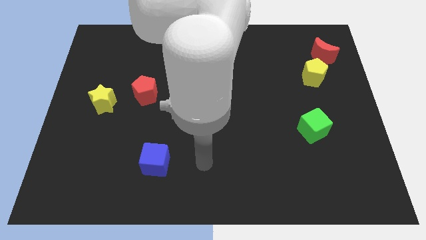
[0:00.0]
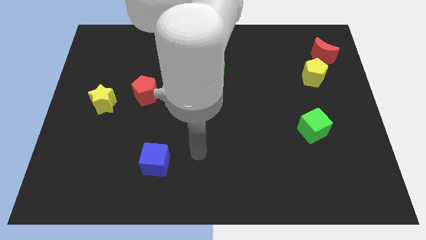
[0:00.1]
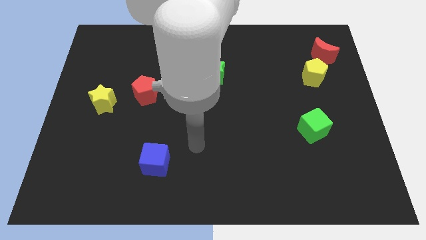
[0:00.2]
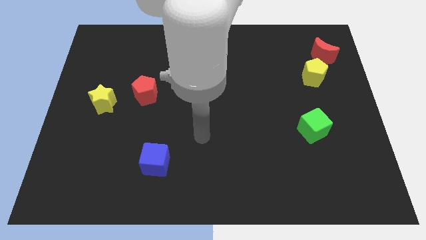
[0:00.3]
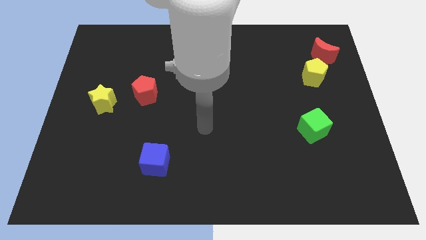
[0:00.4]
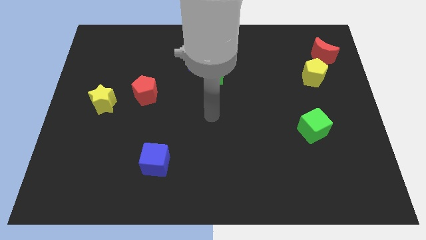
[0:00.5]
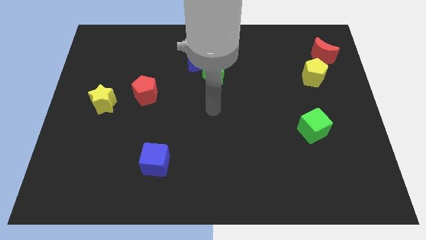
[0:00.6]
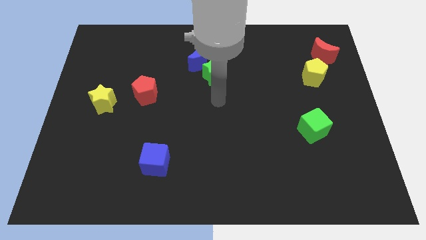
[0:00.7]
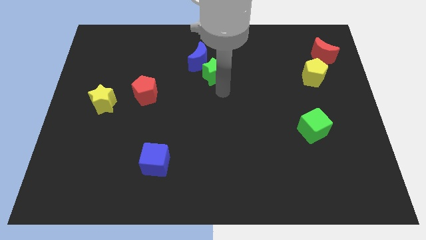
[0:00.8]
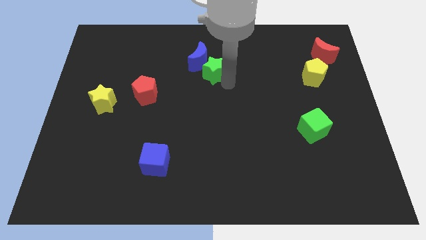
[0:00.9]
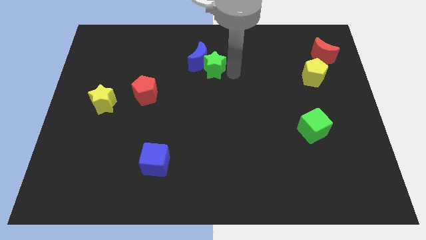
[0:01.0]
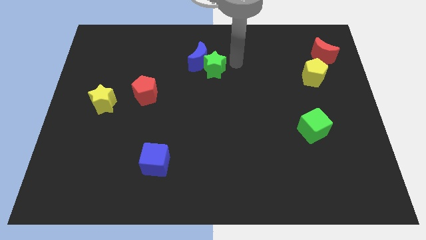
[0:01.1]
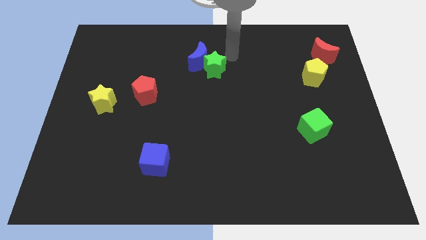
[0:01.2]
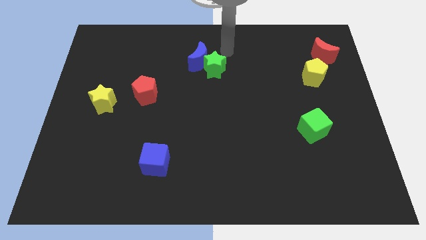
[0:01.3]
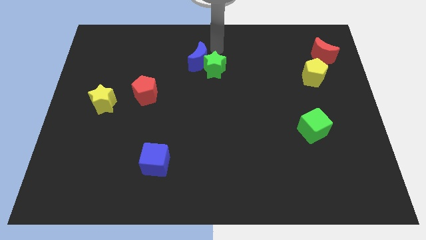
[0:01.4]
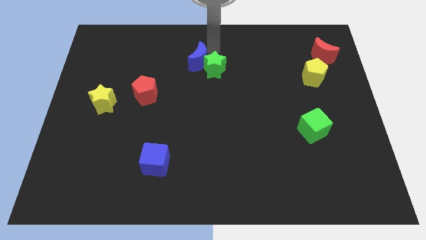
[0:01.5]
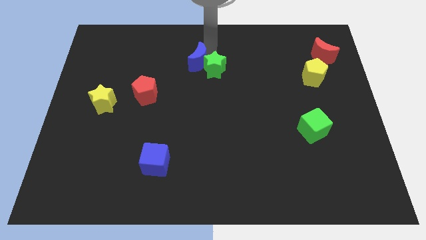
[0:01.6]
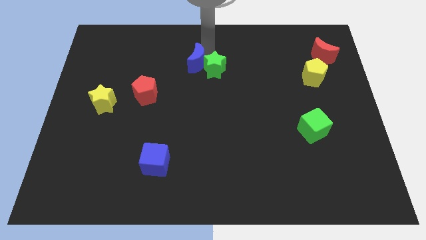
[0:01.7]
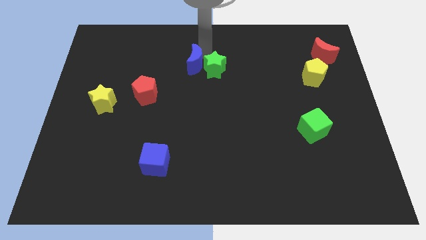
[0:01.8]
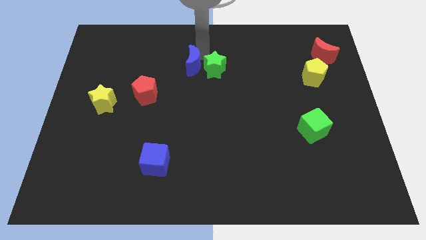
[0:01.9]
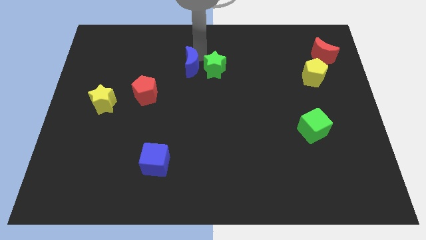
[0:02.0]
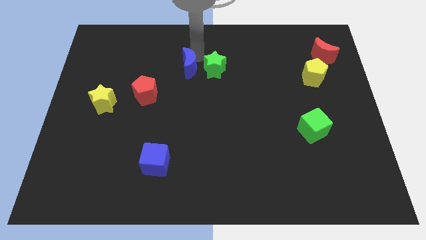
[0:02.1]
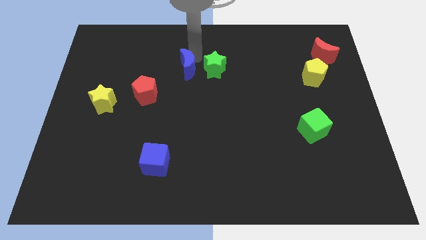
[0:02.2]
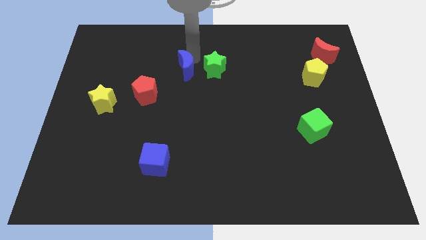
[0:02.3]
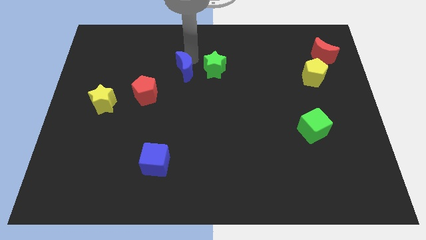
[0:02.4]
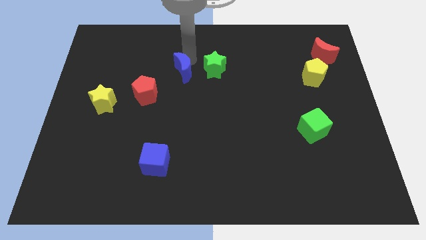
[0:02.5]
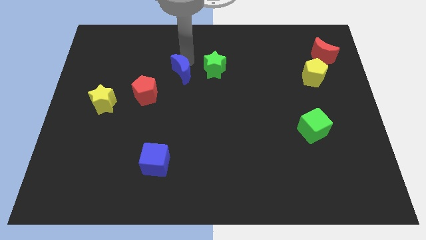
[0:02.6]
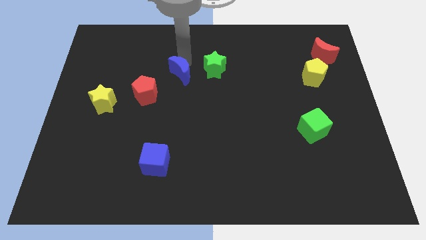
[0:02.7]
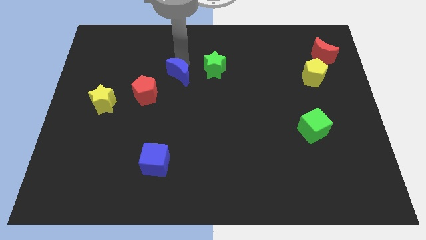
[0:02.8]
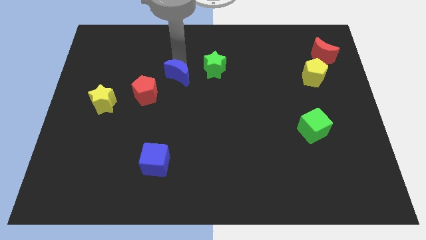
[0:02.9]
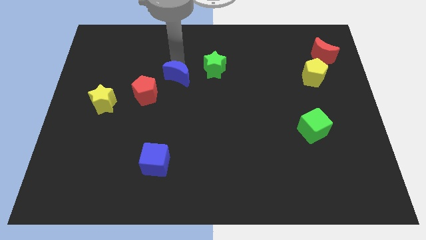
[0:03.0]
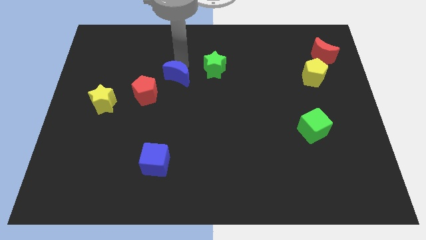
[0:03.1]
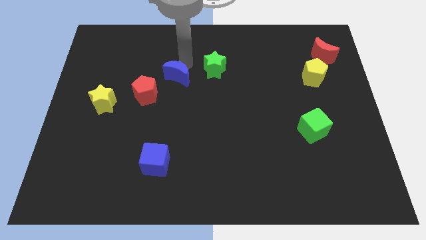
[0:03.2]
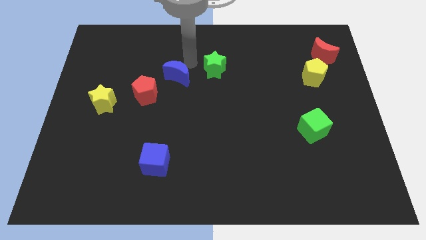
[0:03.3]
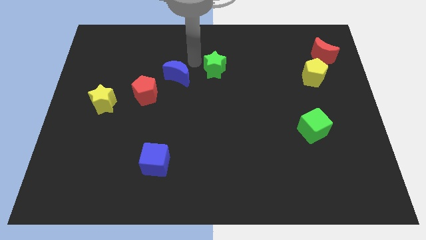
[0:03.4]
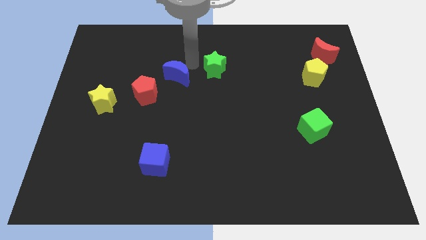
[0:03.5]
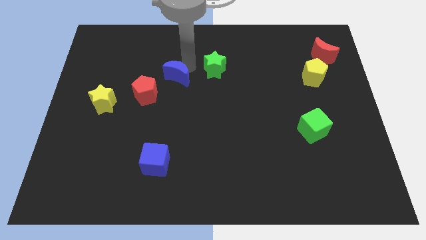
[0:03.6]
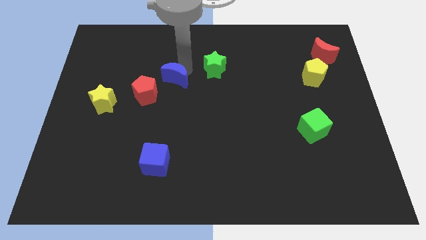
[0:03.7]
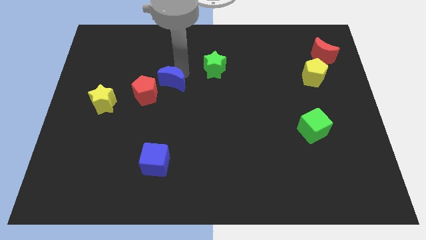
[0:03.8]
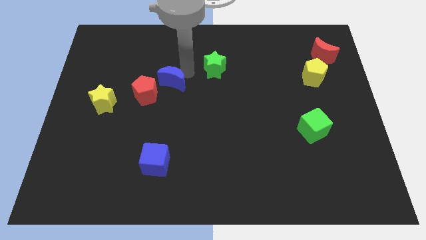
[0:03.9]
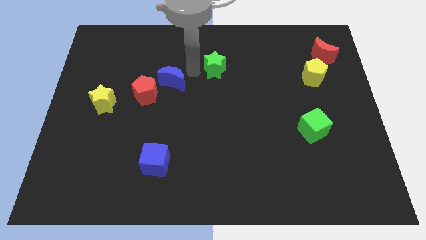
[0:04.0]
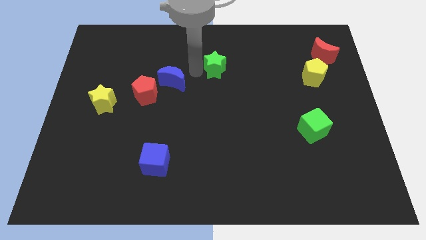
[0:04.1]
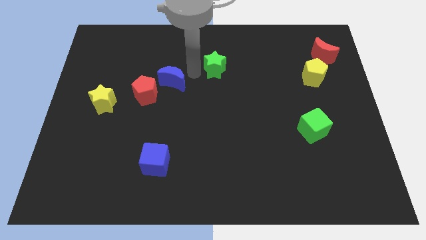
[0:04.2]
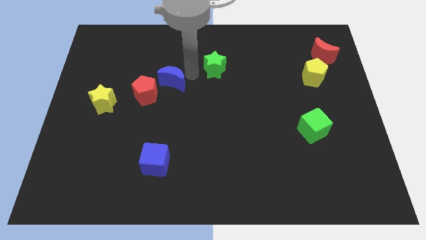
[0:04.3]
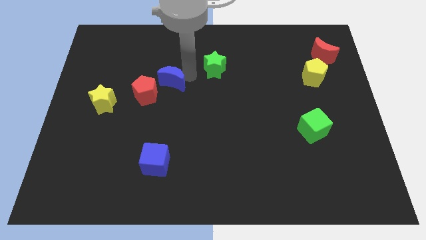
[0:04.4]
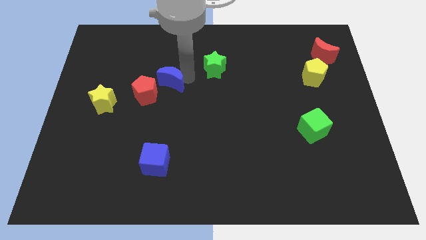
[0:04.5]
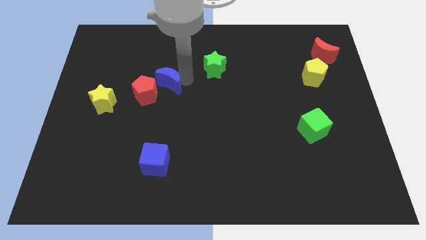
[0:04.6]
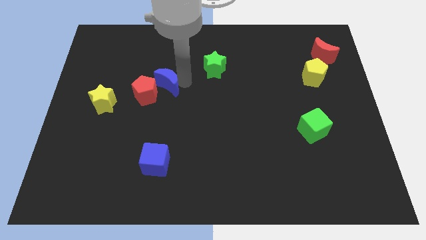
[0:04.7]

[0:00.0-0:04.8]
slide the blue moon close to the red pentagon

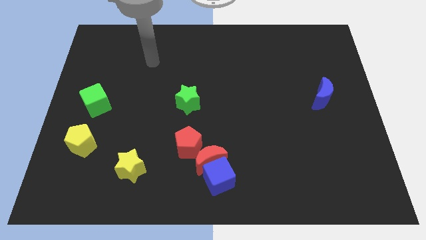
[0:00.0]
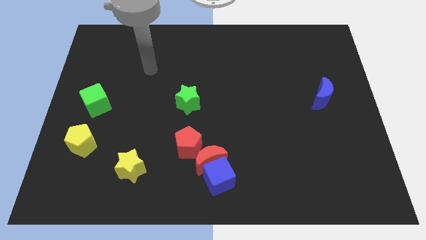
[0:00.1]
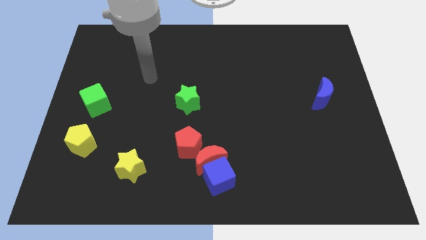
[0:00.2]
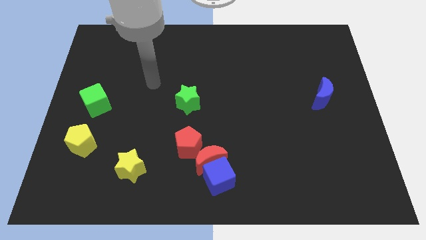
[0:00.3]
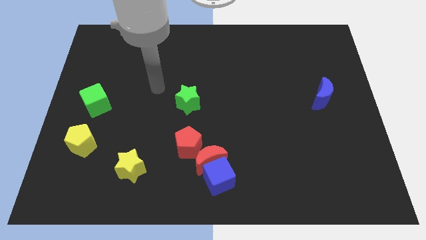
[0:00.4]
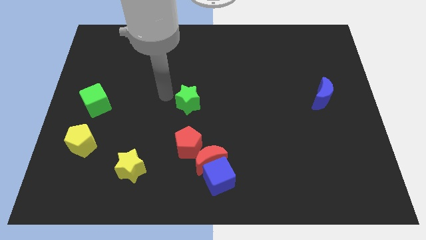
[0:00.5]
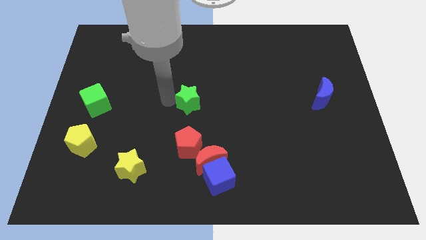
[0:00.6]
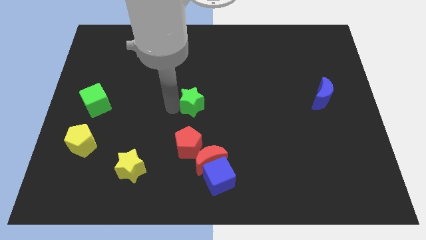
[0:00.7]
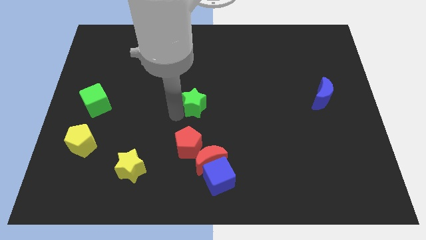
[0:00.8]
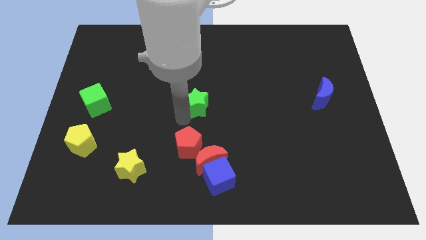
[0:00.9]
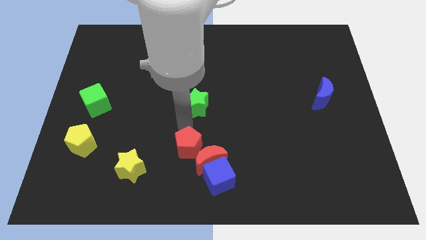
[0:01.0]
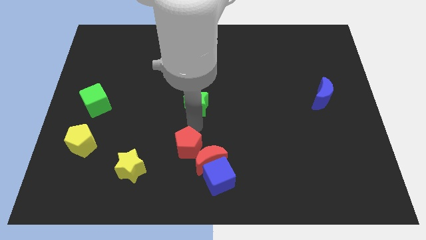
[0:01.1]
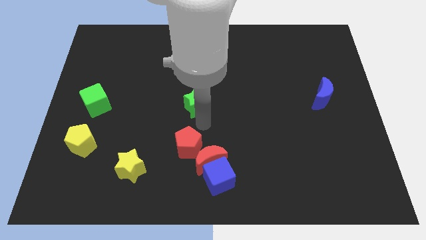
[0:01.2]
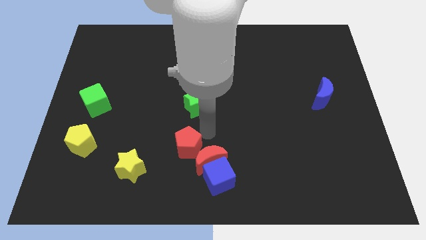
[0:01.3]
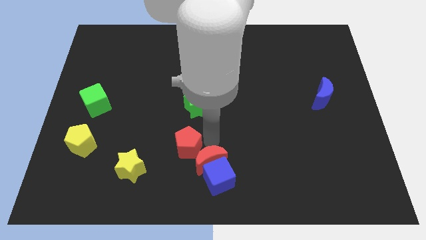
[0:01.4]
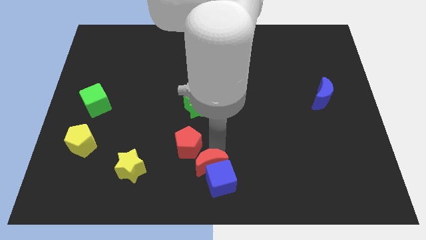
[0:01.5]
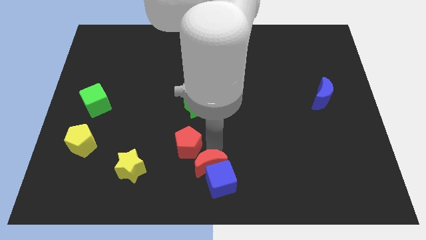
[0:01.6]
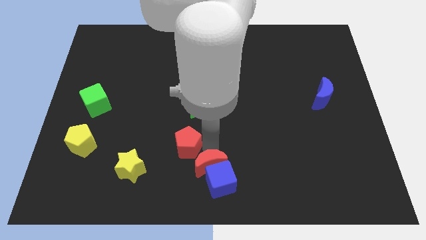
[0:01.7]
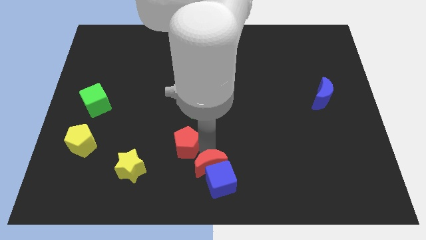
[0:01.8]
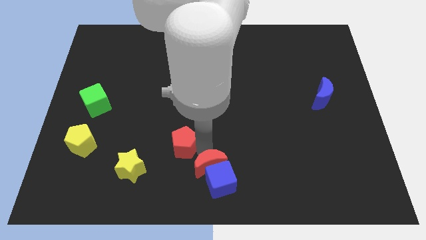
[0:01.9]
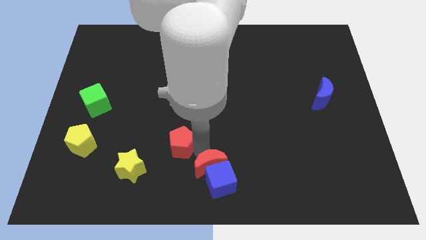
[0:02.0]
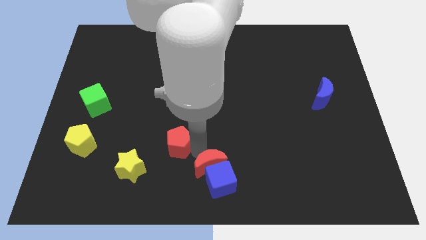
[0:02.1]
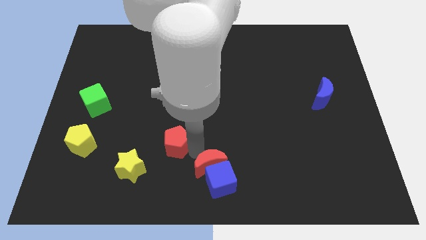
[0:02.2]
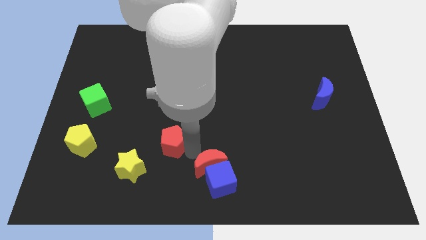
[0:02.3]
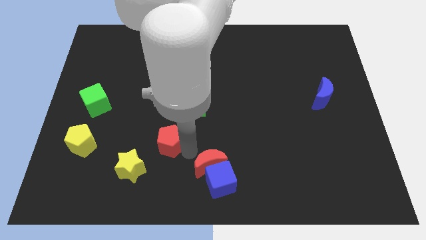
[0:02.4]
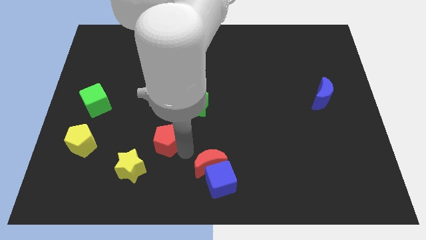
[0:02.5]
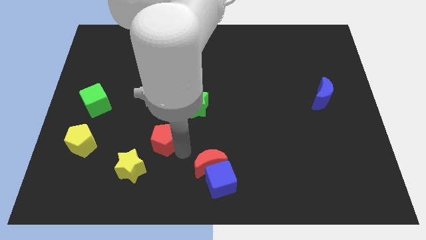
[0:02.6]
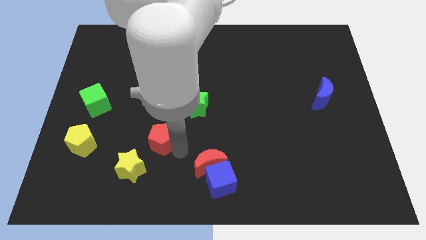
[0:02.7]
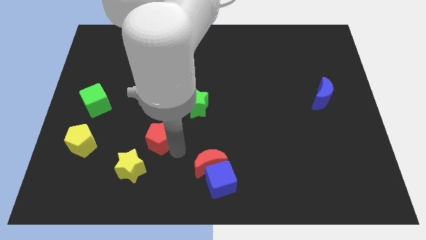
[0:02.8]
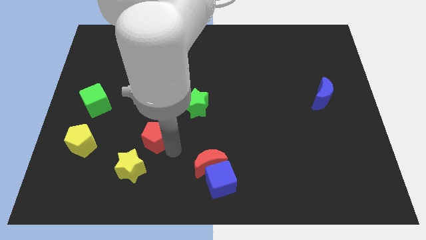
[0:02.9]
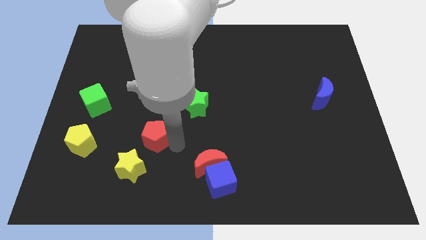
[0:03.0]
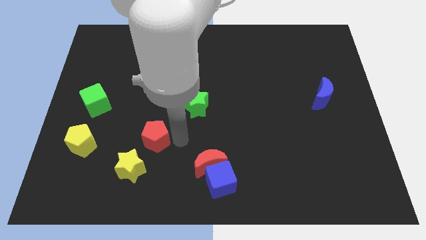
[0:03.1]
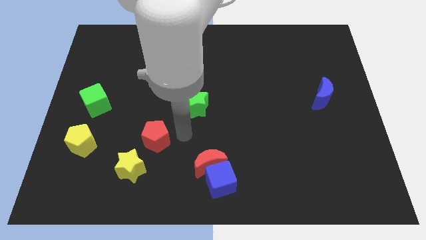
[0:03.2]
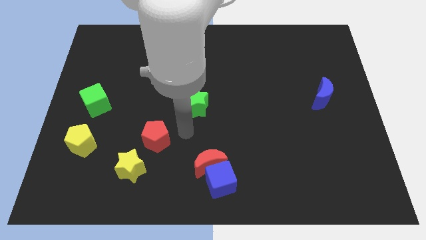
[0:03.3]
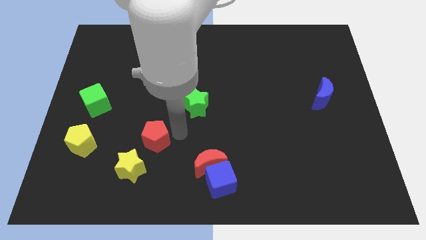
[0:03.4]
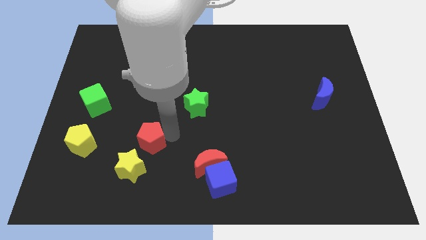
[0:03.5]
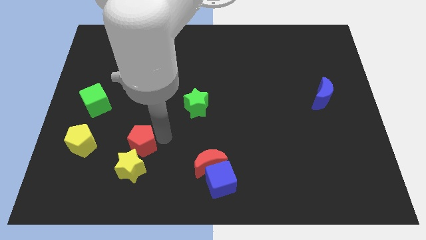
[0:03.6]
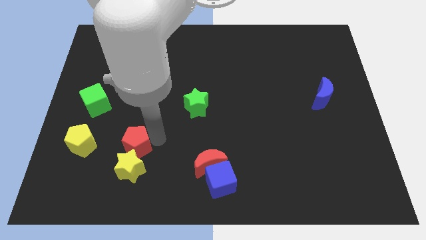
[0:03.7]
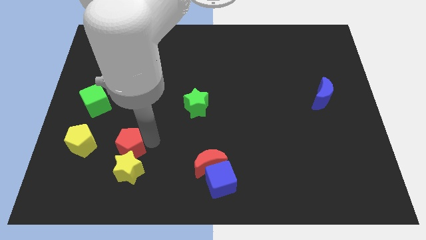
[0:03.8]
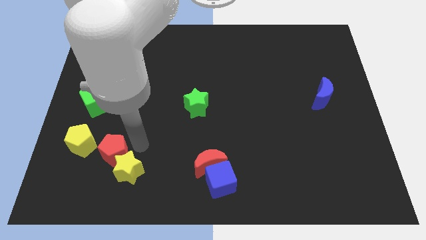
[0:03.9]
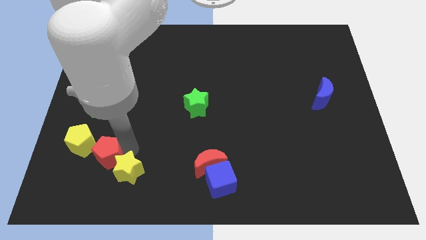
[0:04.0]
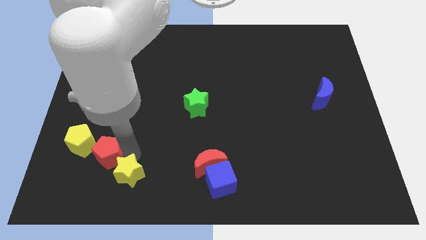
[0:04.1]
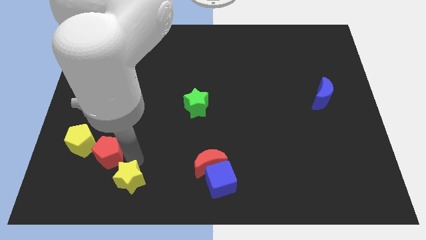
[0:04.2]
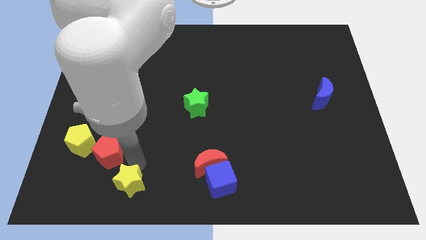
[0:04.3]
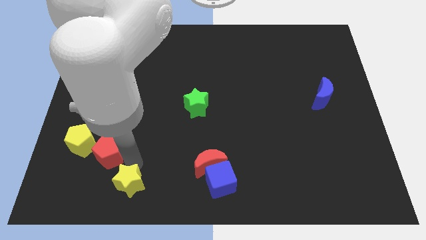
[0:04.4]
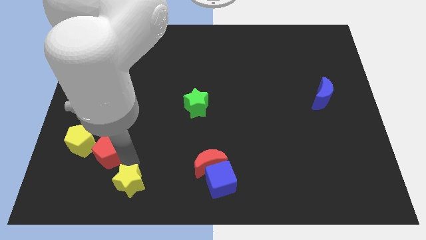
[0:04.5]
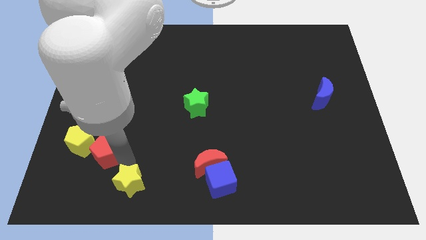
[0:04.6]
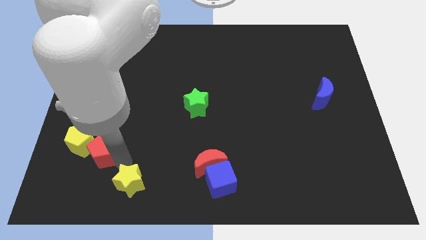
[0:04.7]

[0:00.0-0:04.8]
push the red pentagon close to the yellow pentagon
